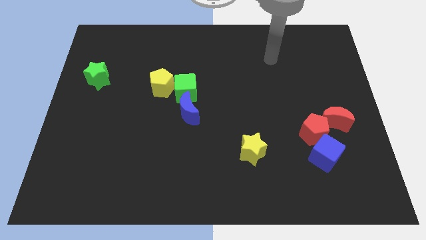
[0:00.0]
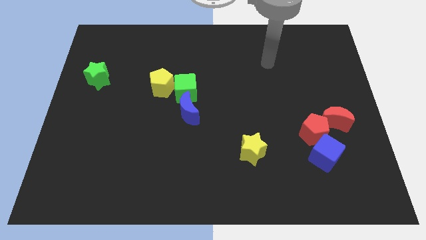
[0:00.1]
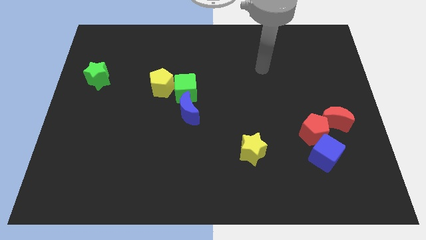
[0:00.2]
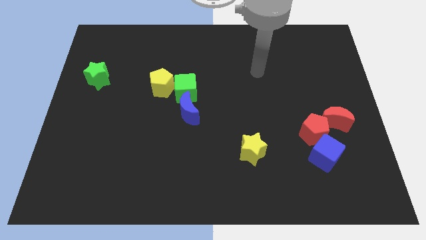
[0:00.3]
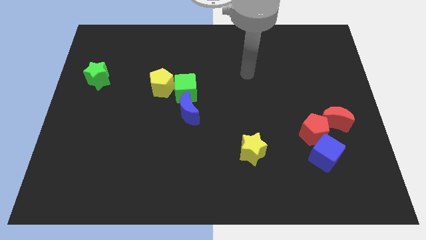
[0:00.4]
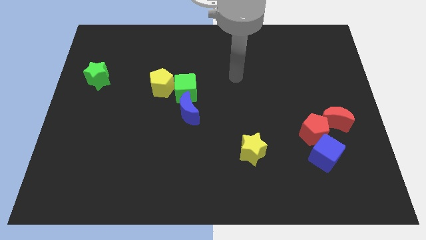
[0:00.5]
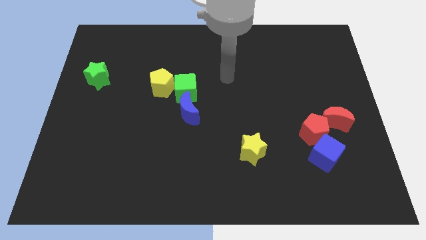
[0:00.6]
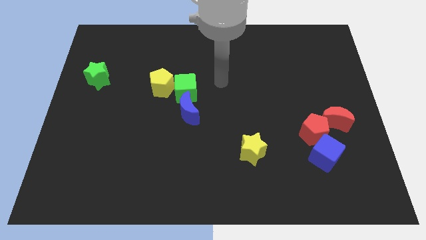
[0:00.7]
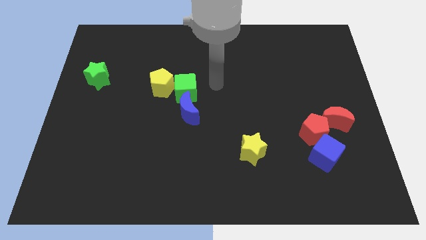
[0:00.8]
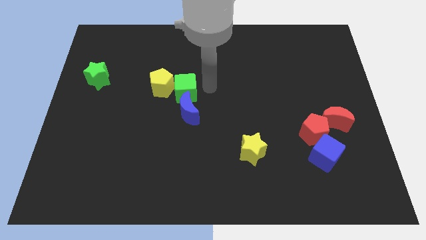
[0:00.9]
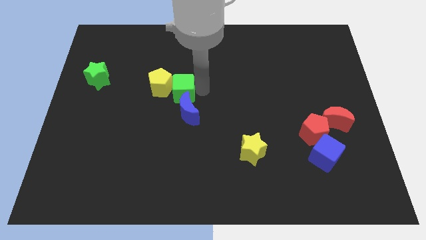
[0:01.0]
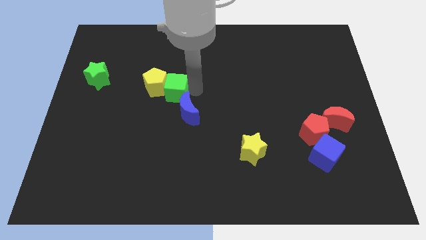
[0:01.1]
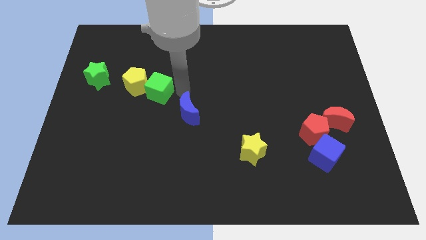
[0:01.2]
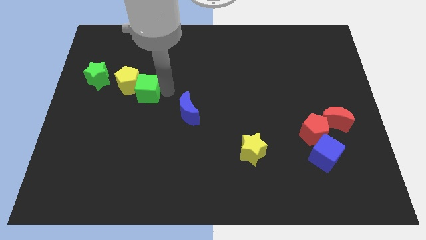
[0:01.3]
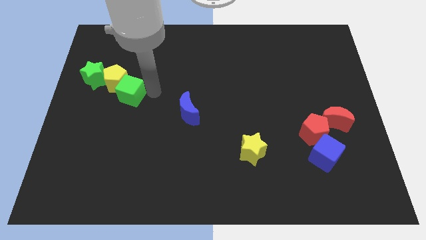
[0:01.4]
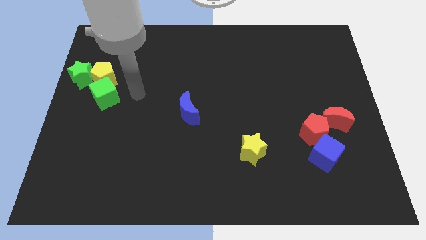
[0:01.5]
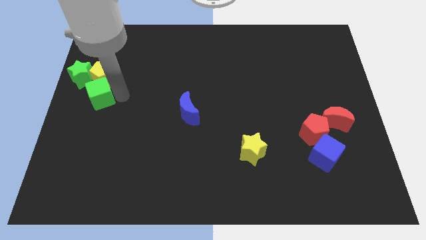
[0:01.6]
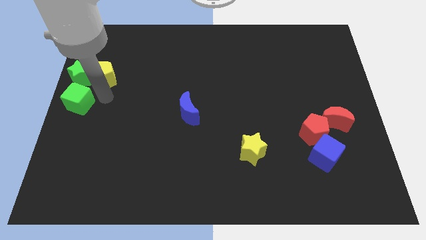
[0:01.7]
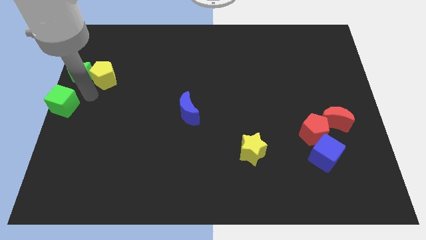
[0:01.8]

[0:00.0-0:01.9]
pull the yellow pentagon apart from the green cube

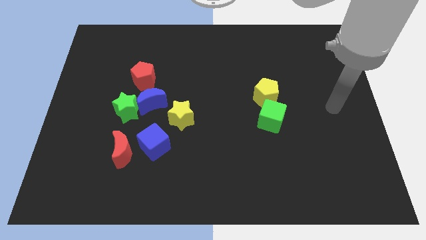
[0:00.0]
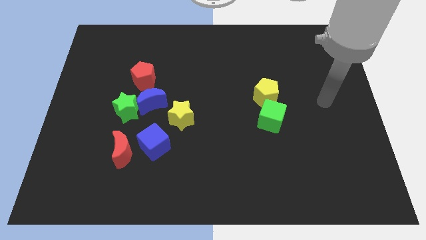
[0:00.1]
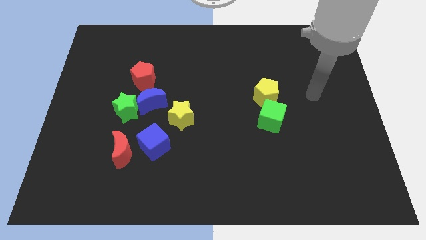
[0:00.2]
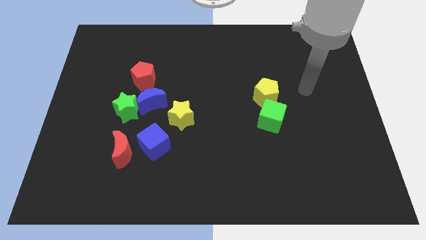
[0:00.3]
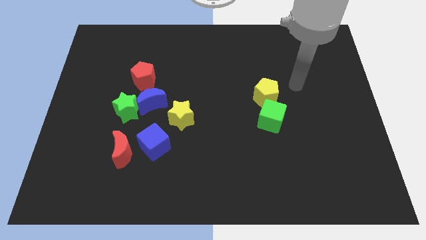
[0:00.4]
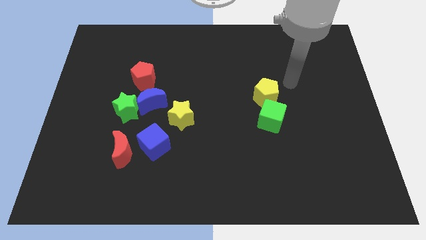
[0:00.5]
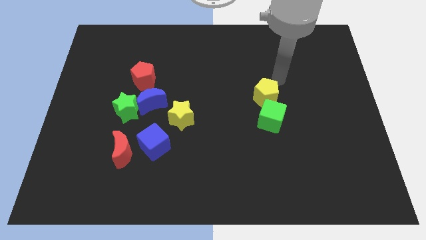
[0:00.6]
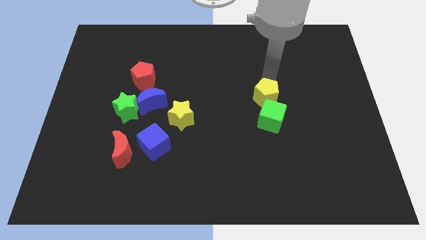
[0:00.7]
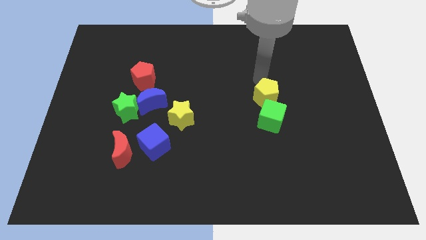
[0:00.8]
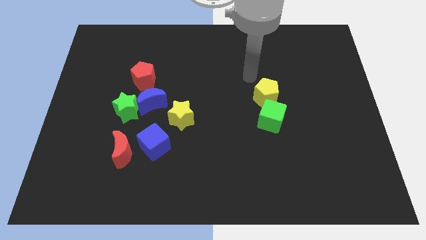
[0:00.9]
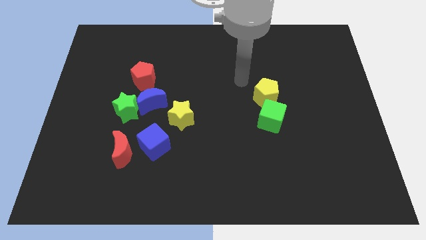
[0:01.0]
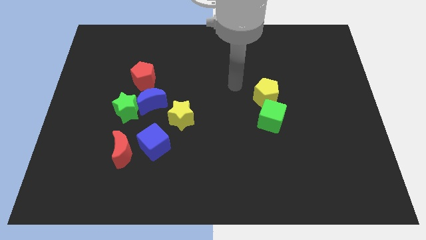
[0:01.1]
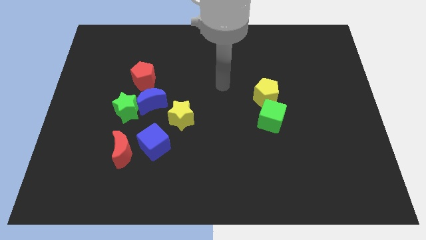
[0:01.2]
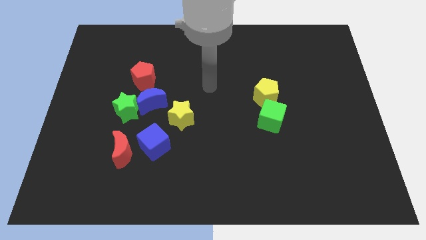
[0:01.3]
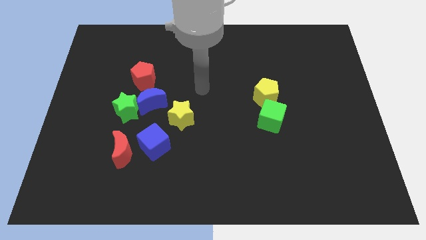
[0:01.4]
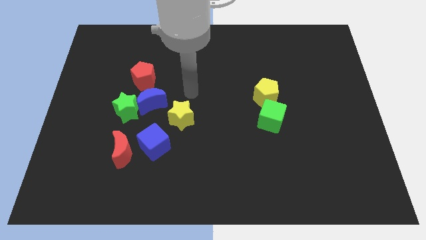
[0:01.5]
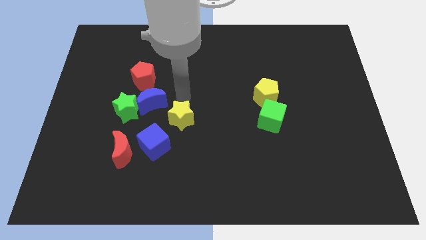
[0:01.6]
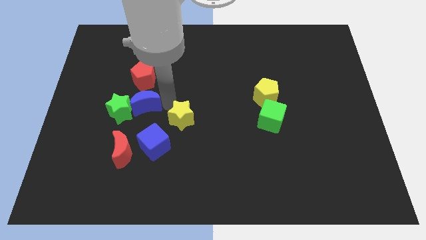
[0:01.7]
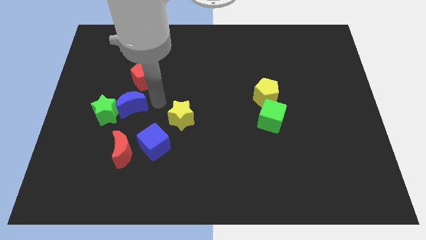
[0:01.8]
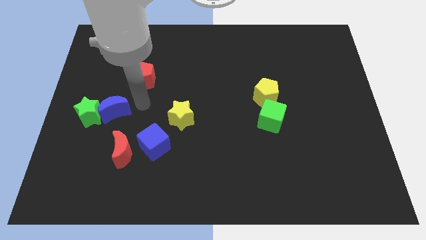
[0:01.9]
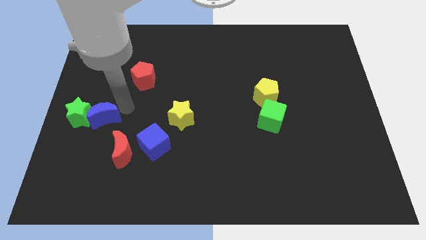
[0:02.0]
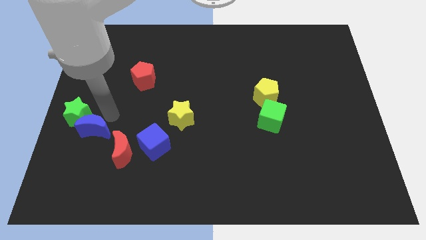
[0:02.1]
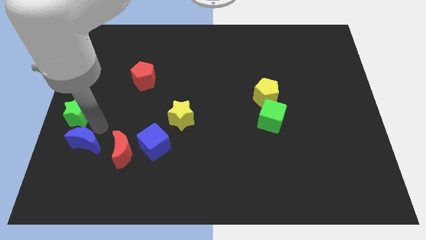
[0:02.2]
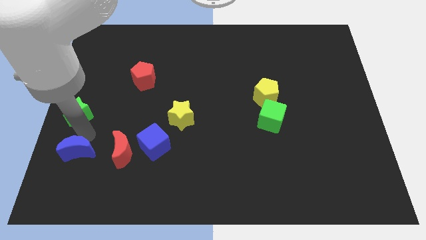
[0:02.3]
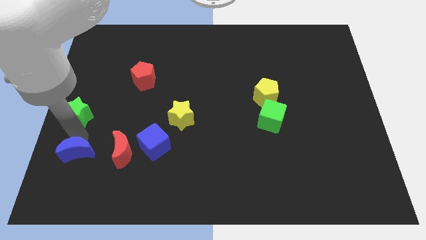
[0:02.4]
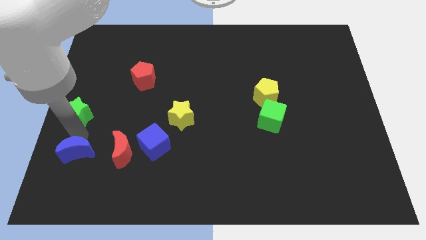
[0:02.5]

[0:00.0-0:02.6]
move the green star away from the blue moon

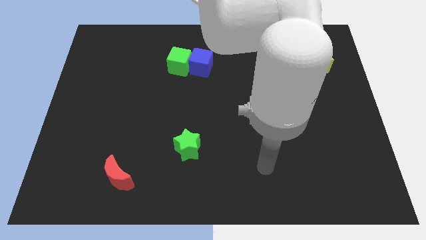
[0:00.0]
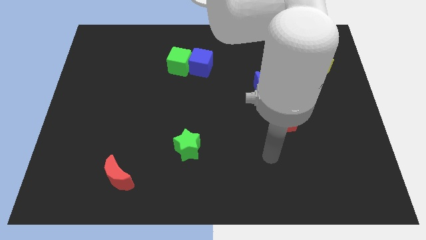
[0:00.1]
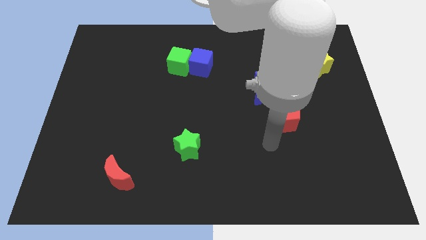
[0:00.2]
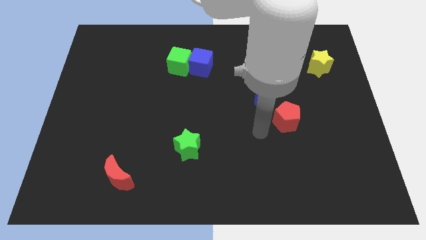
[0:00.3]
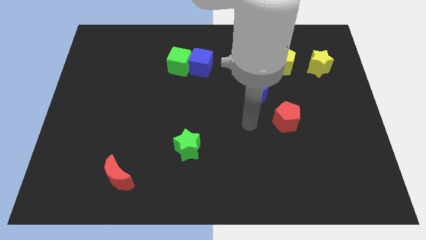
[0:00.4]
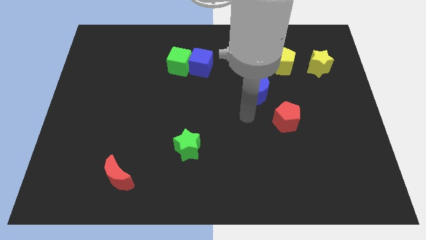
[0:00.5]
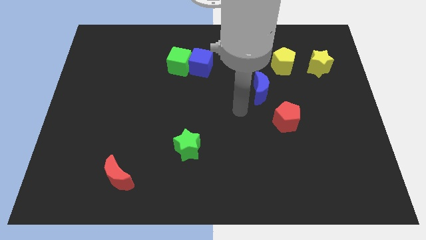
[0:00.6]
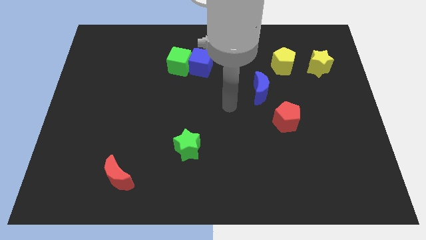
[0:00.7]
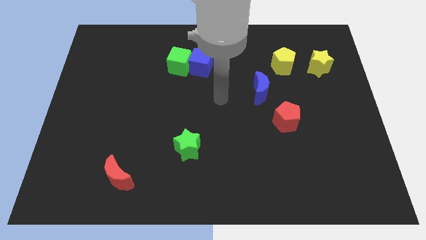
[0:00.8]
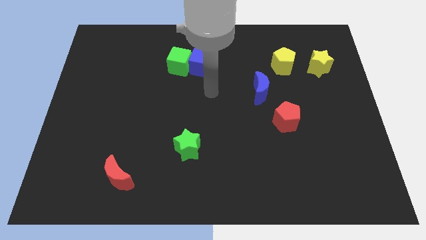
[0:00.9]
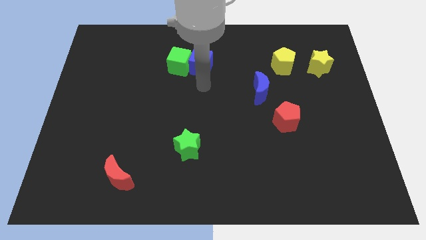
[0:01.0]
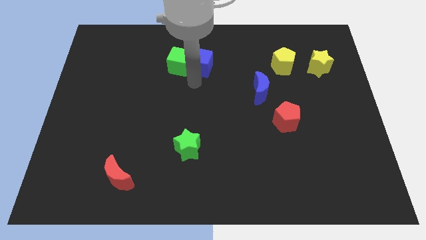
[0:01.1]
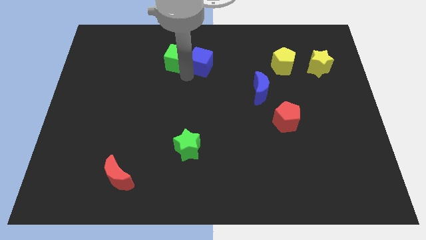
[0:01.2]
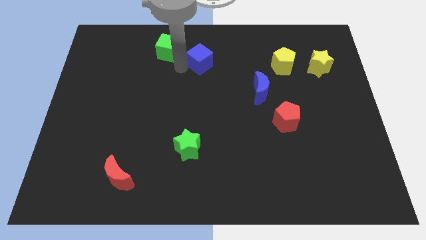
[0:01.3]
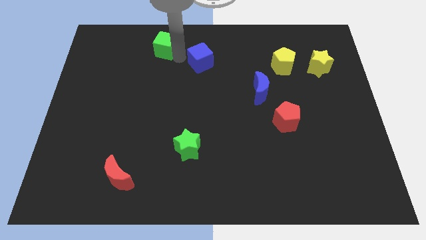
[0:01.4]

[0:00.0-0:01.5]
separate the blue cube from the green cube

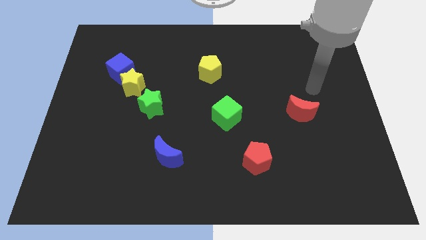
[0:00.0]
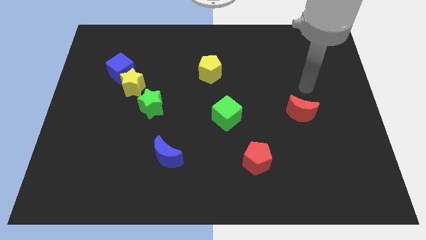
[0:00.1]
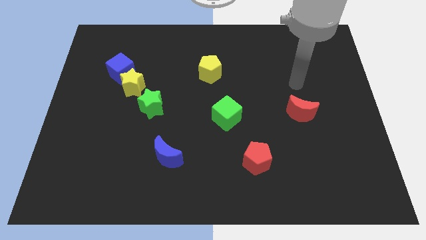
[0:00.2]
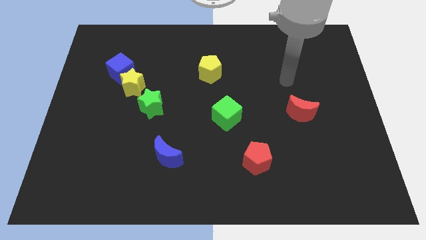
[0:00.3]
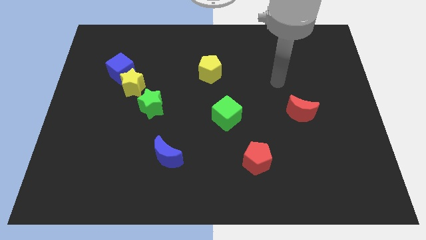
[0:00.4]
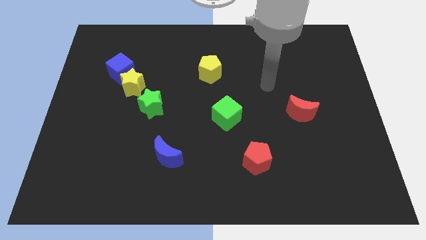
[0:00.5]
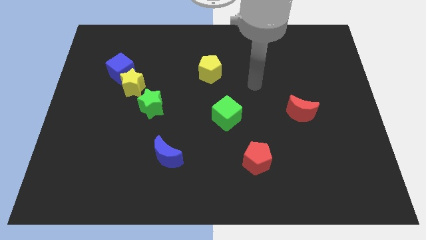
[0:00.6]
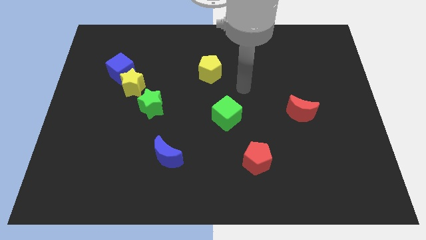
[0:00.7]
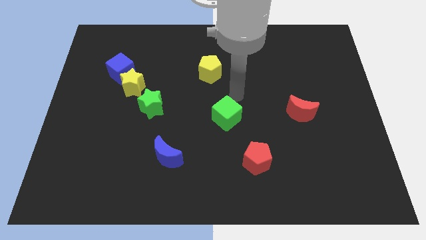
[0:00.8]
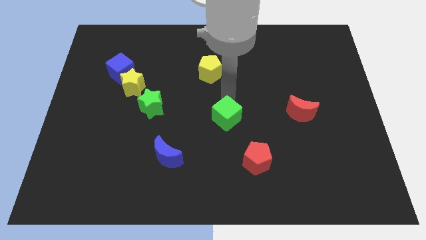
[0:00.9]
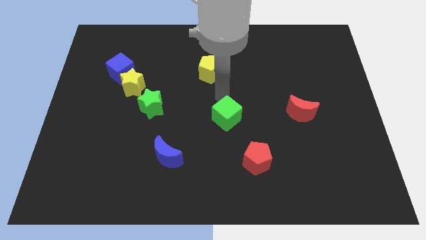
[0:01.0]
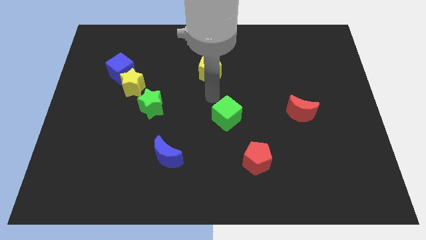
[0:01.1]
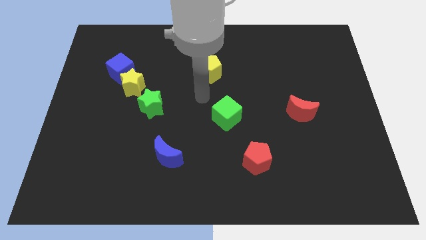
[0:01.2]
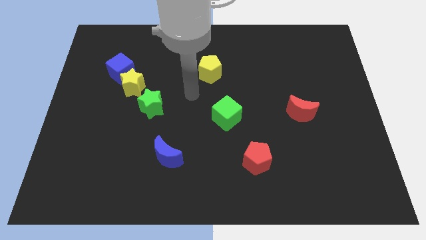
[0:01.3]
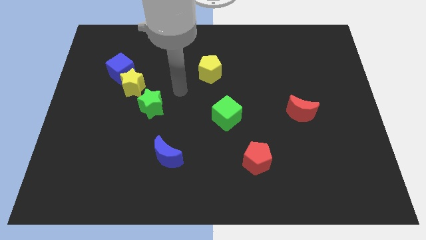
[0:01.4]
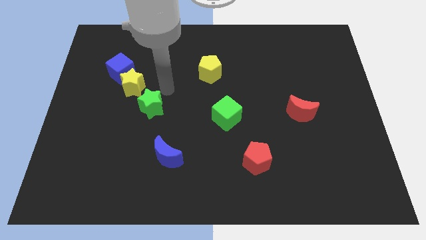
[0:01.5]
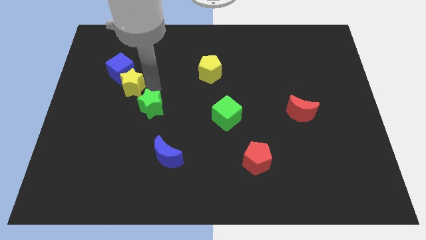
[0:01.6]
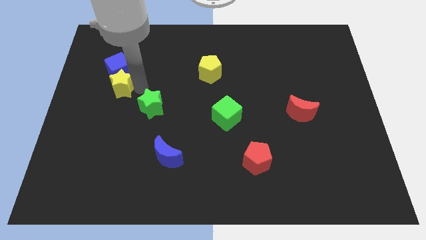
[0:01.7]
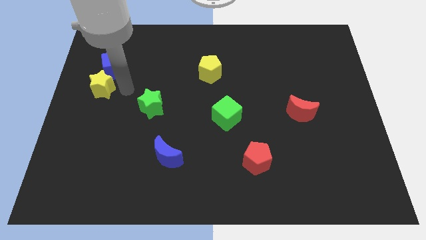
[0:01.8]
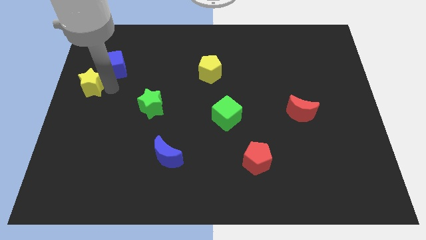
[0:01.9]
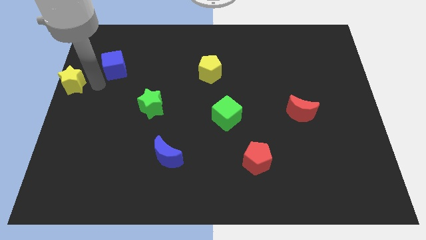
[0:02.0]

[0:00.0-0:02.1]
pull the blue cube apart from the yellow star

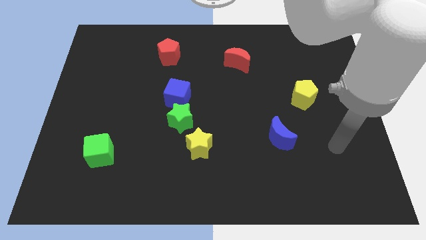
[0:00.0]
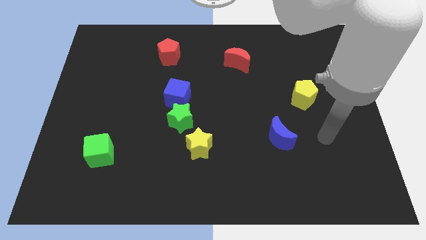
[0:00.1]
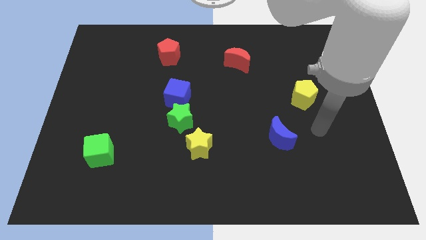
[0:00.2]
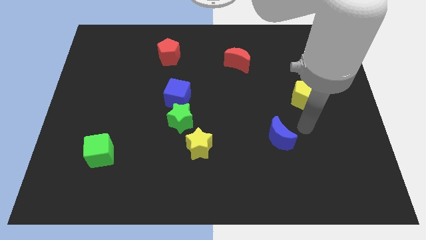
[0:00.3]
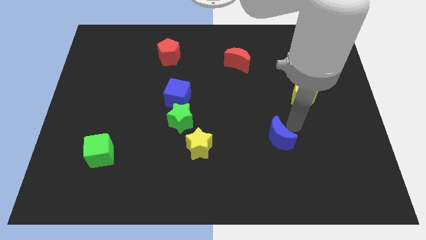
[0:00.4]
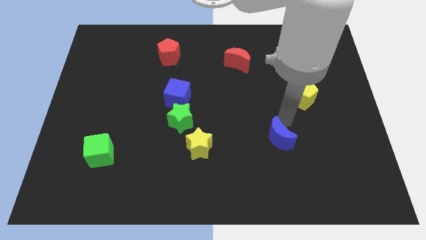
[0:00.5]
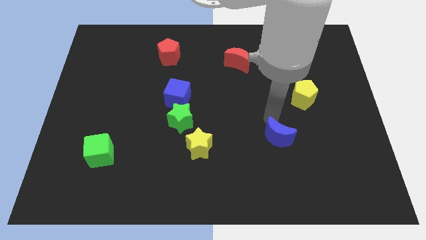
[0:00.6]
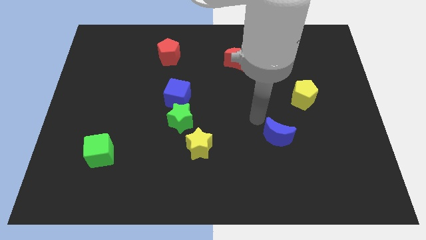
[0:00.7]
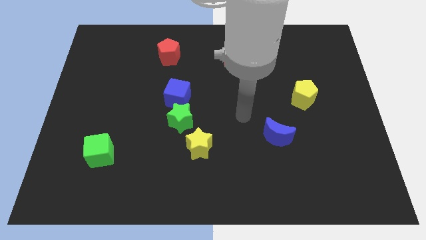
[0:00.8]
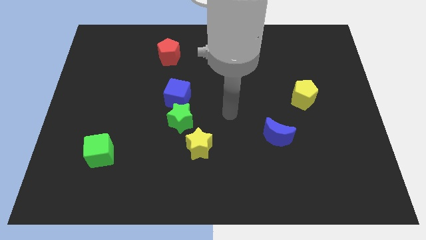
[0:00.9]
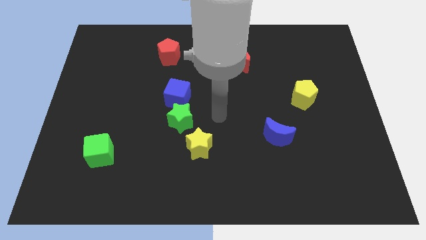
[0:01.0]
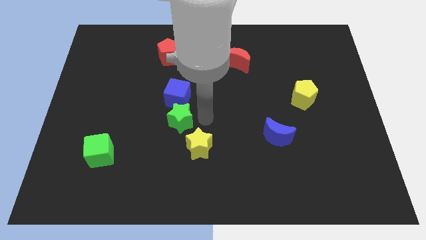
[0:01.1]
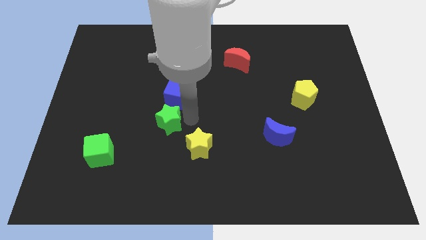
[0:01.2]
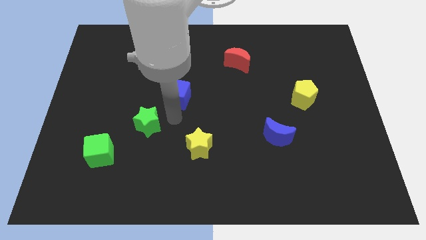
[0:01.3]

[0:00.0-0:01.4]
pull the blue cube apart from the green star

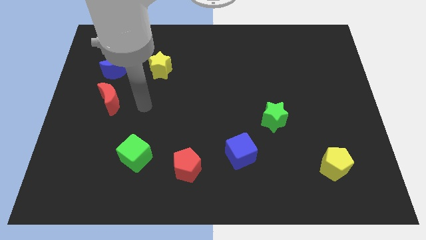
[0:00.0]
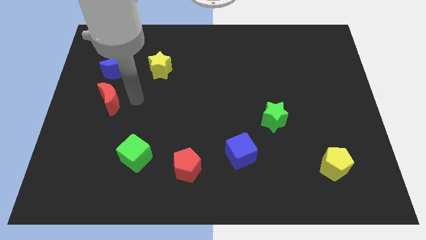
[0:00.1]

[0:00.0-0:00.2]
pull the red moon apart from the blue moon
